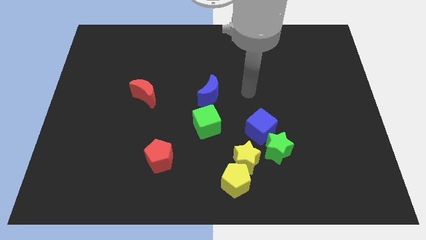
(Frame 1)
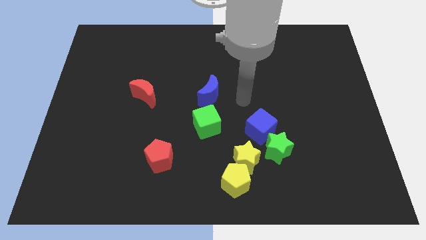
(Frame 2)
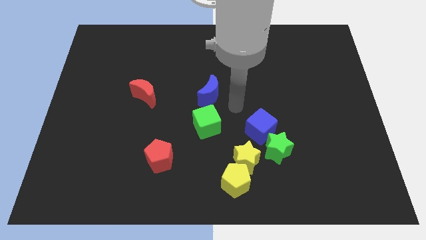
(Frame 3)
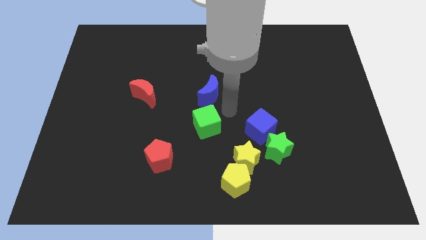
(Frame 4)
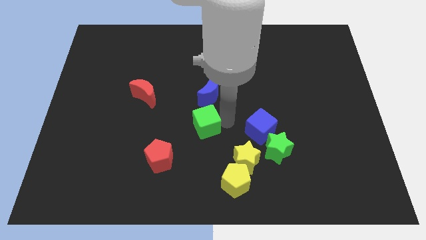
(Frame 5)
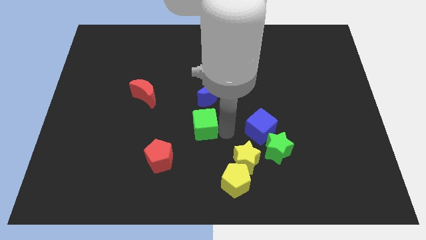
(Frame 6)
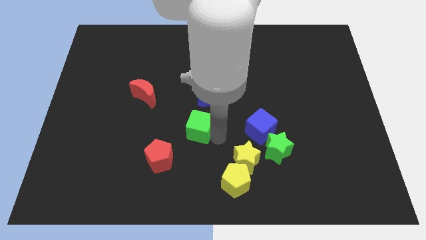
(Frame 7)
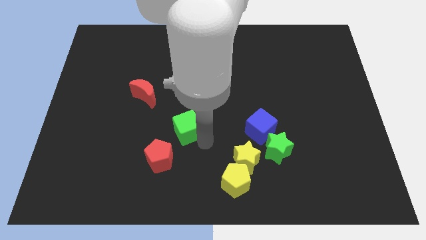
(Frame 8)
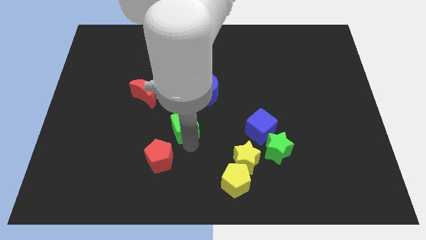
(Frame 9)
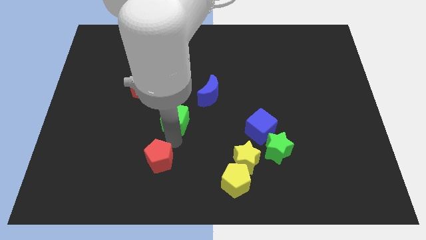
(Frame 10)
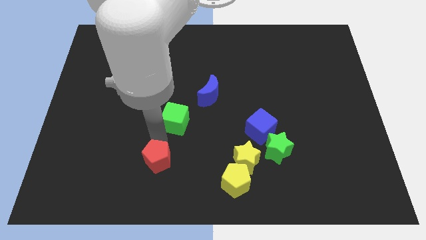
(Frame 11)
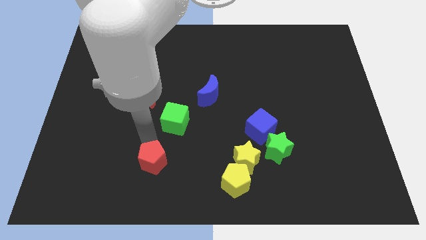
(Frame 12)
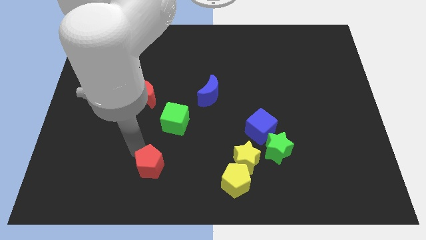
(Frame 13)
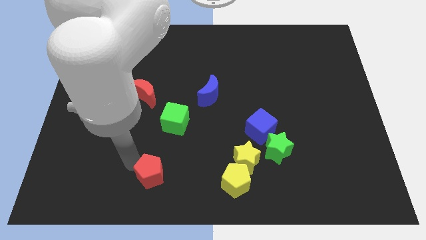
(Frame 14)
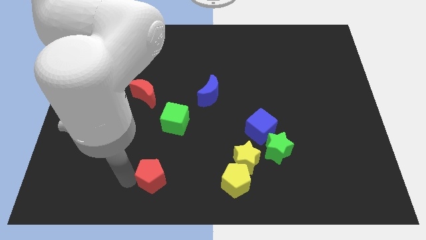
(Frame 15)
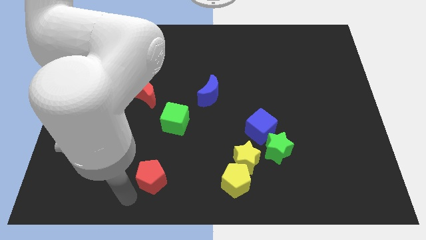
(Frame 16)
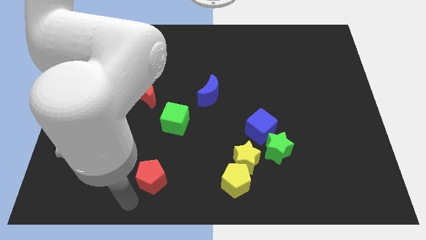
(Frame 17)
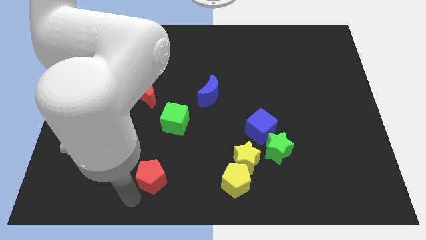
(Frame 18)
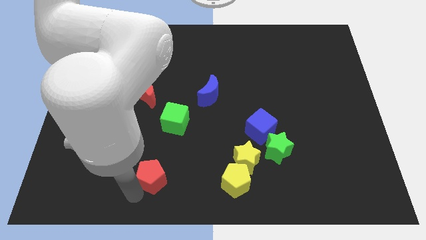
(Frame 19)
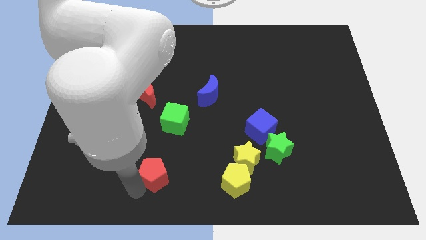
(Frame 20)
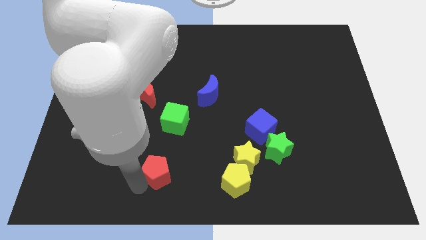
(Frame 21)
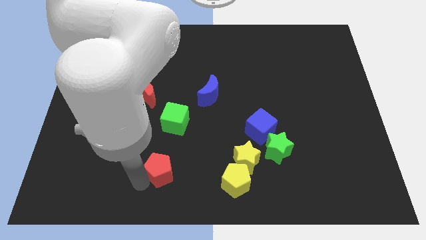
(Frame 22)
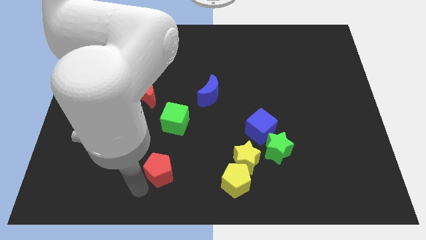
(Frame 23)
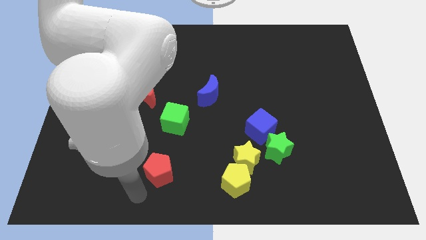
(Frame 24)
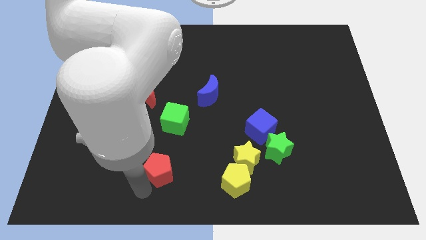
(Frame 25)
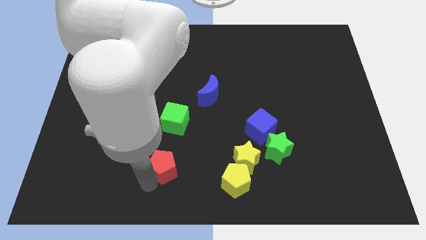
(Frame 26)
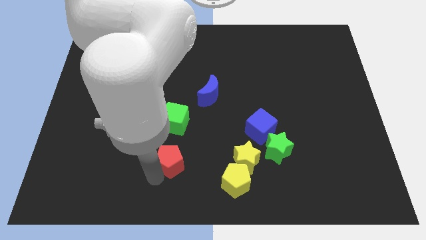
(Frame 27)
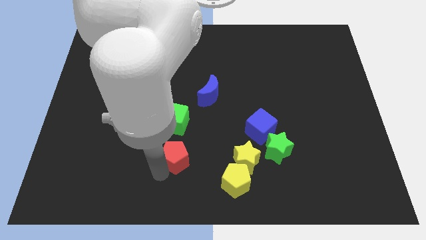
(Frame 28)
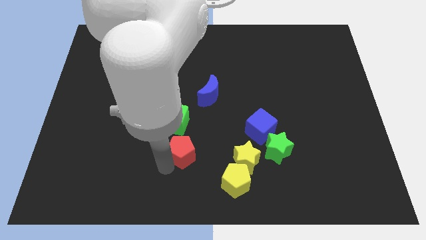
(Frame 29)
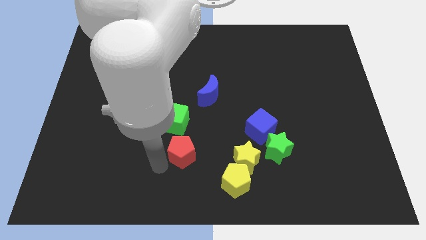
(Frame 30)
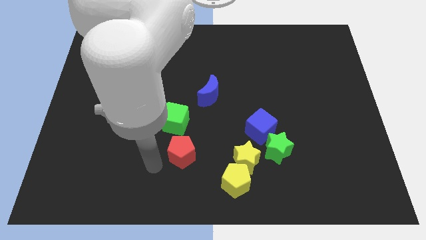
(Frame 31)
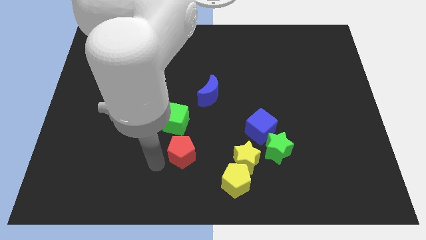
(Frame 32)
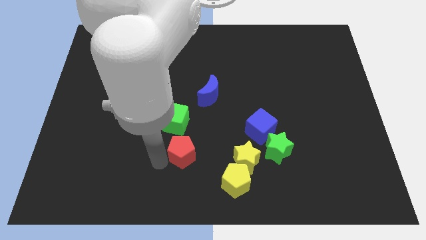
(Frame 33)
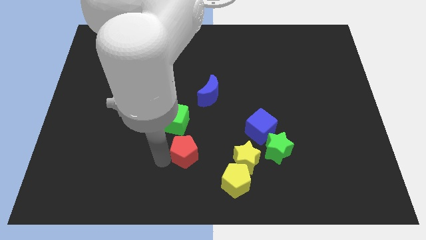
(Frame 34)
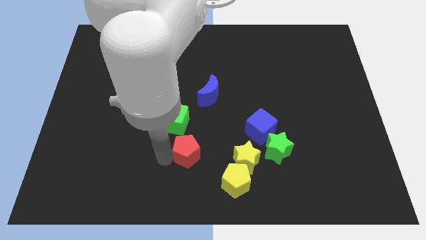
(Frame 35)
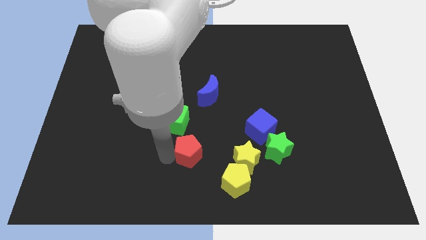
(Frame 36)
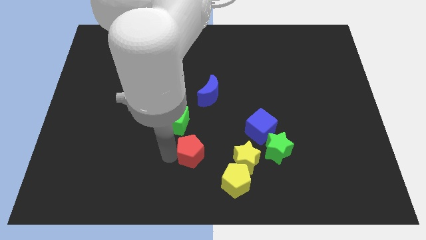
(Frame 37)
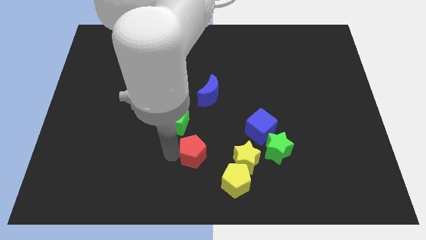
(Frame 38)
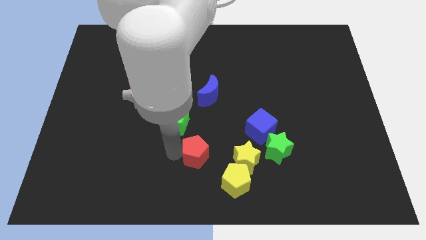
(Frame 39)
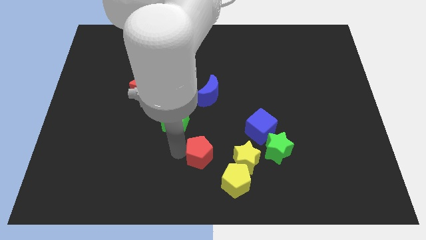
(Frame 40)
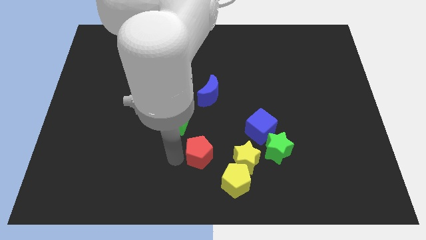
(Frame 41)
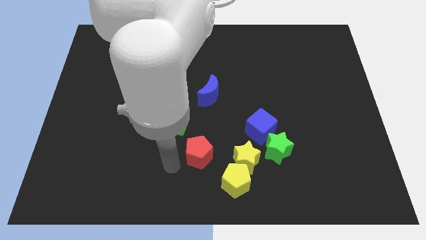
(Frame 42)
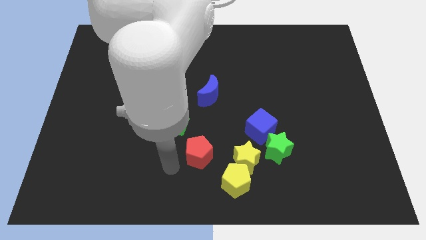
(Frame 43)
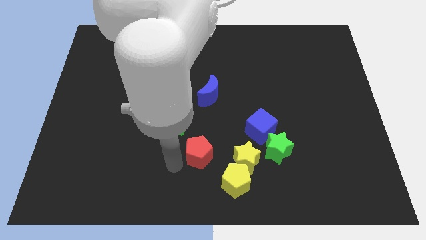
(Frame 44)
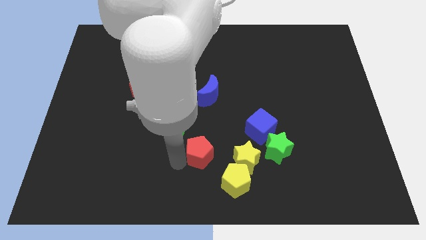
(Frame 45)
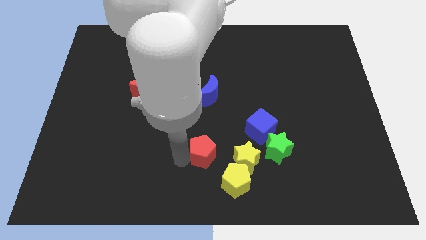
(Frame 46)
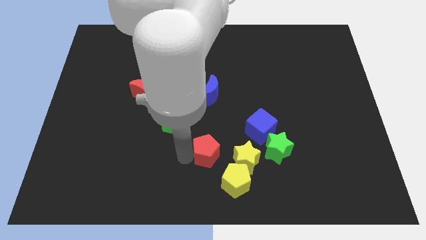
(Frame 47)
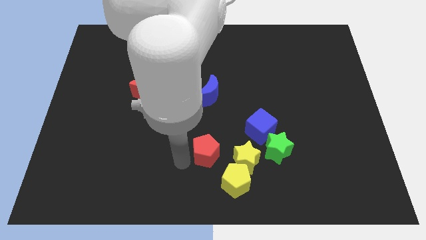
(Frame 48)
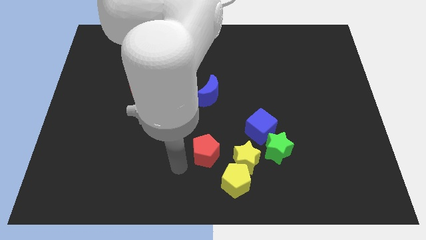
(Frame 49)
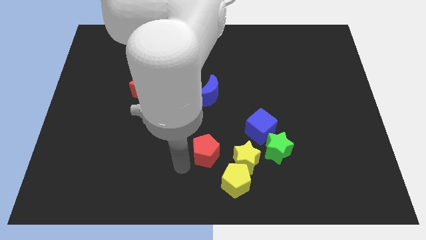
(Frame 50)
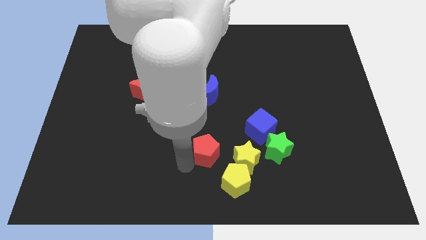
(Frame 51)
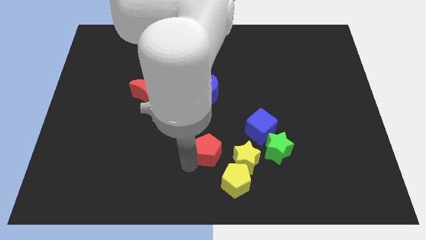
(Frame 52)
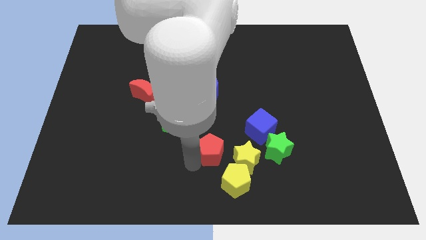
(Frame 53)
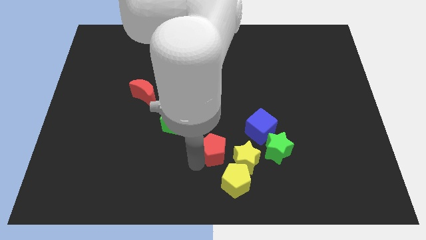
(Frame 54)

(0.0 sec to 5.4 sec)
put the red pentagon to the top of the yellow pentagon

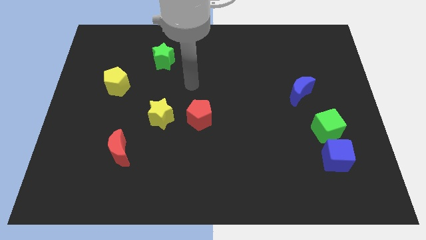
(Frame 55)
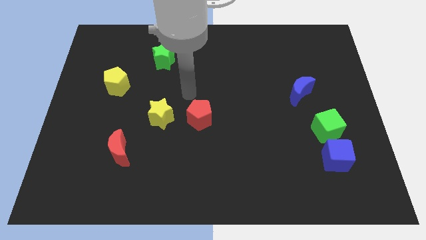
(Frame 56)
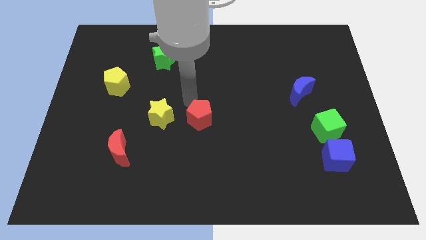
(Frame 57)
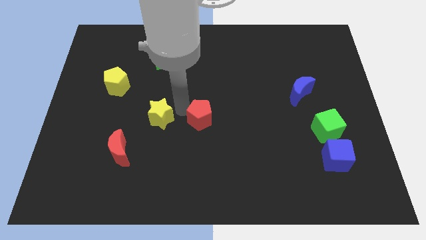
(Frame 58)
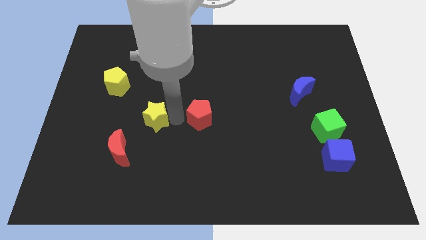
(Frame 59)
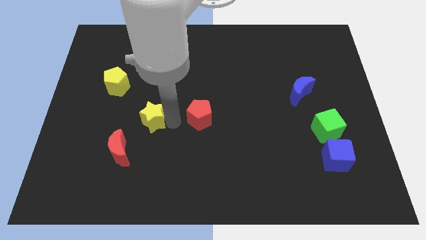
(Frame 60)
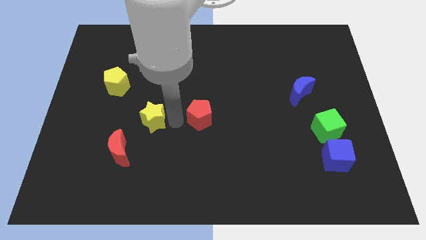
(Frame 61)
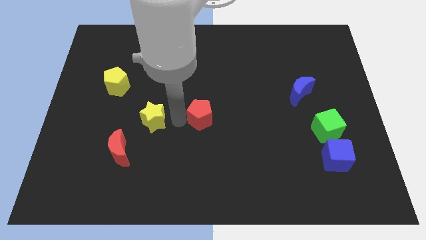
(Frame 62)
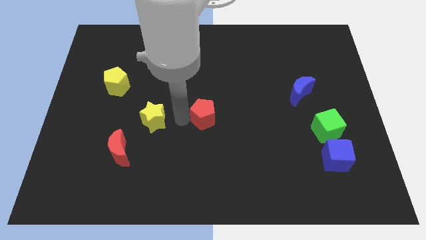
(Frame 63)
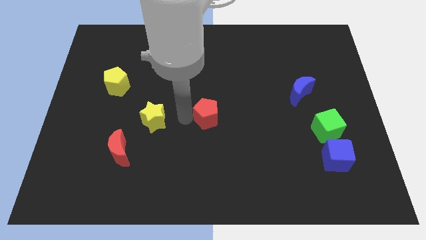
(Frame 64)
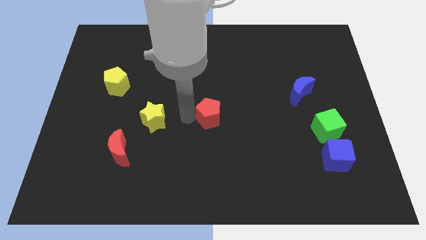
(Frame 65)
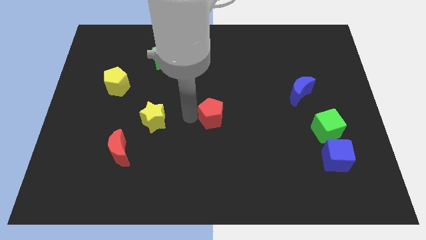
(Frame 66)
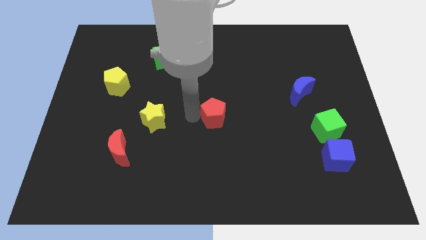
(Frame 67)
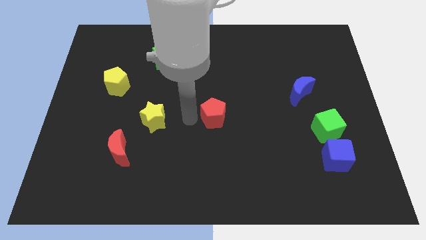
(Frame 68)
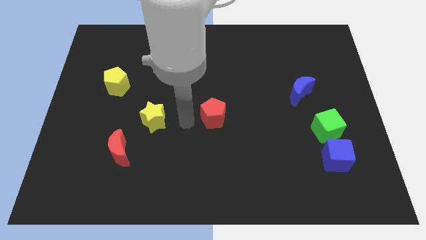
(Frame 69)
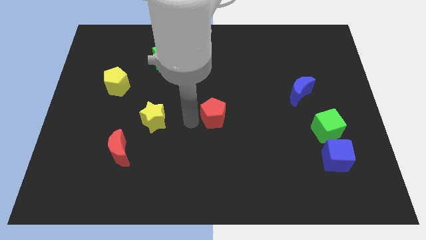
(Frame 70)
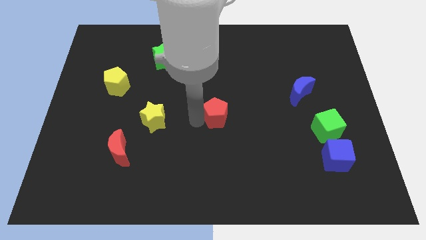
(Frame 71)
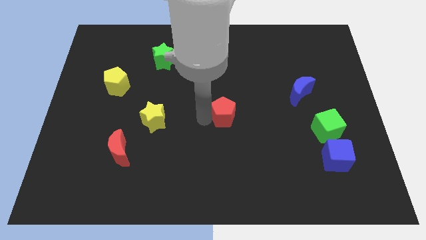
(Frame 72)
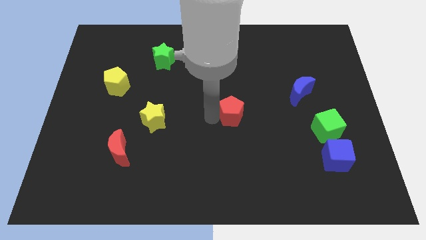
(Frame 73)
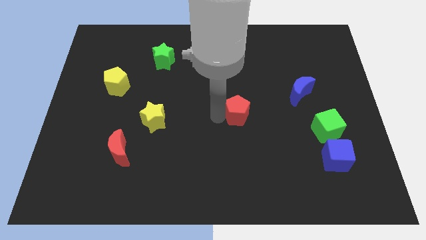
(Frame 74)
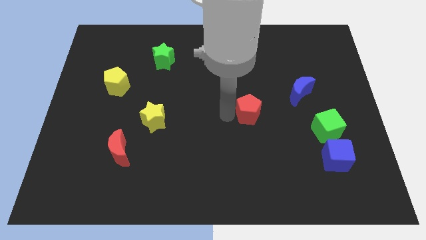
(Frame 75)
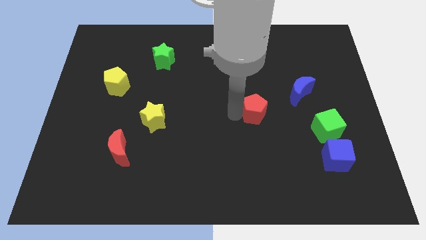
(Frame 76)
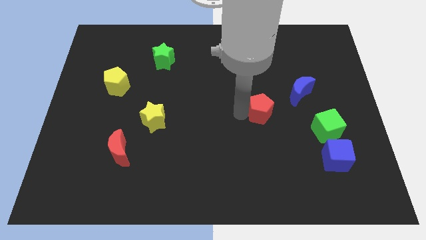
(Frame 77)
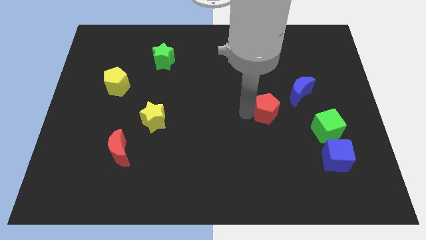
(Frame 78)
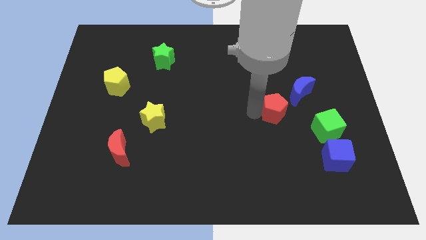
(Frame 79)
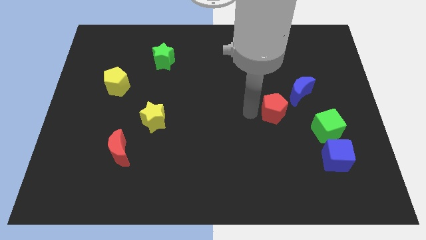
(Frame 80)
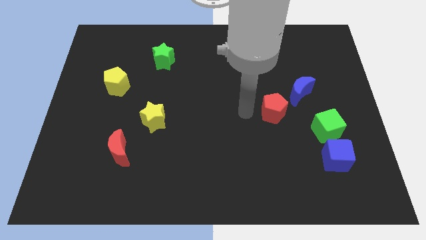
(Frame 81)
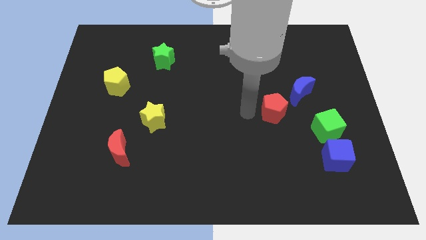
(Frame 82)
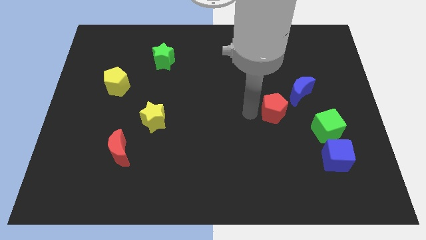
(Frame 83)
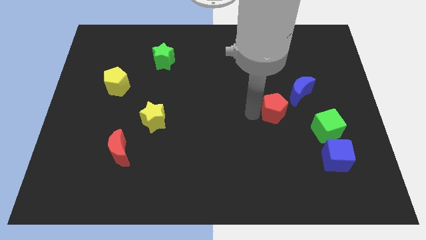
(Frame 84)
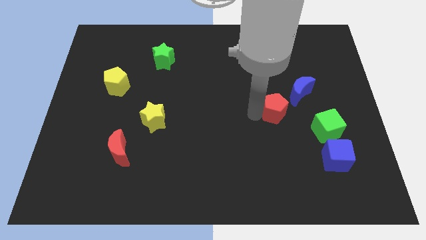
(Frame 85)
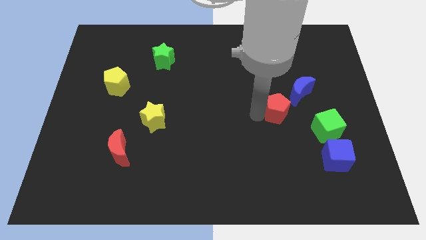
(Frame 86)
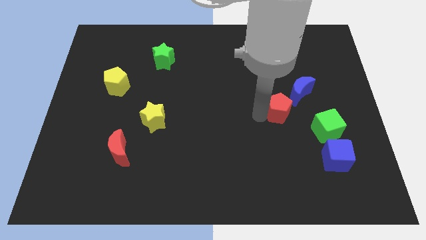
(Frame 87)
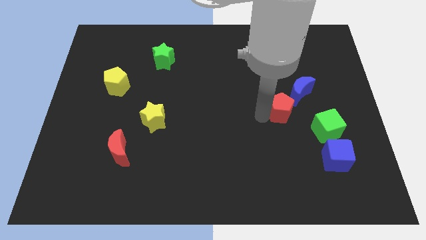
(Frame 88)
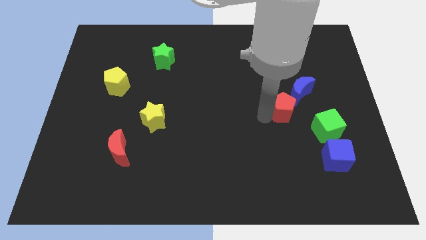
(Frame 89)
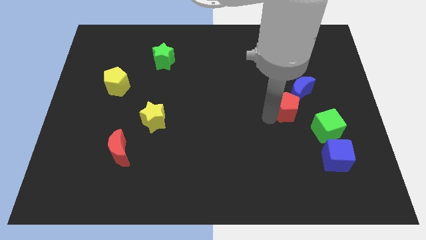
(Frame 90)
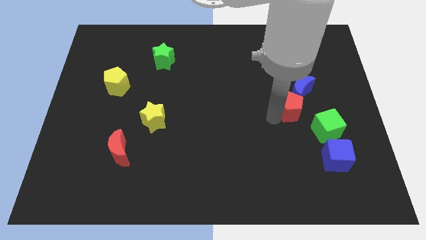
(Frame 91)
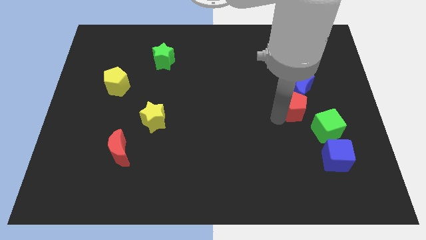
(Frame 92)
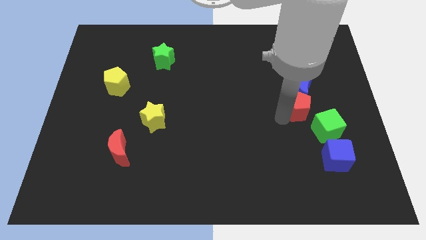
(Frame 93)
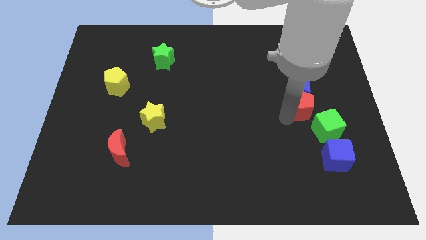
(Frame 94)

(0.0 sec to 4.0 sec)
slide the red pentagon to the top of the green cube
